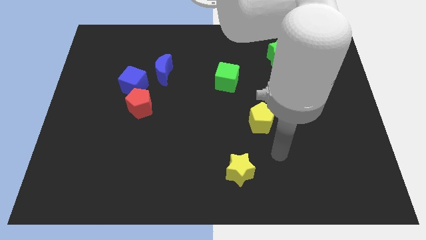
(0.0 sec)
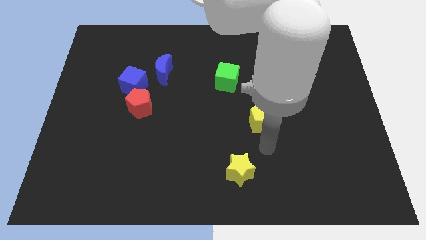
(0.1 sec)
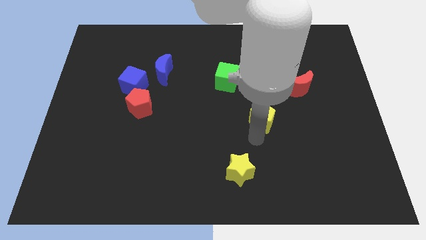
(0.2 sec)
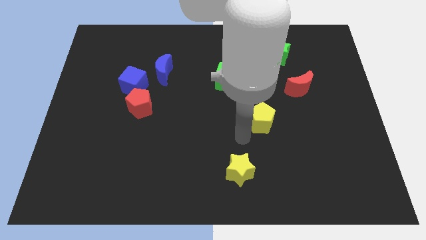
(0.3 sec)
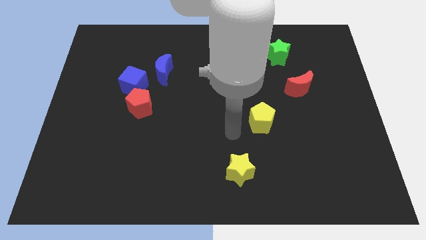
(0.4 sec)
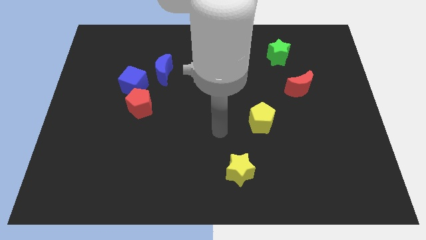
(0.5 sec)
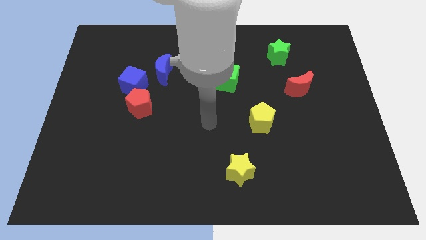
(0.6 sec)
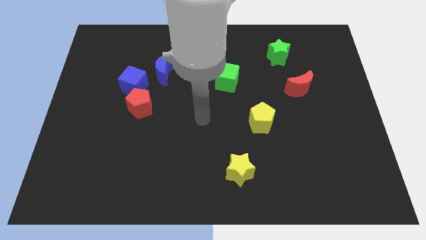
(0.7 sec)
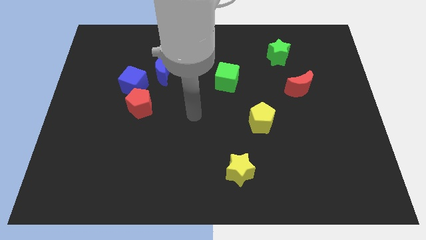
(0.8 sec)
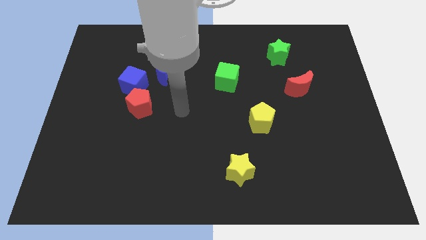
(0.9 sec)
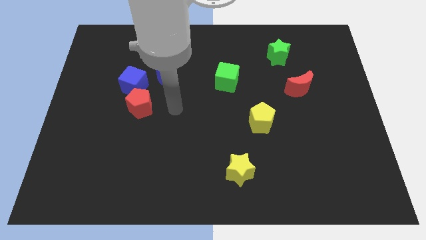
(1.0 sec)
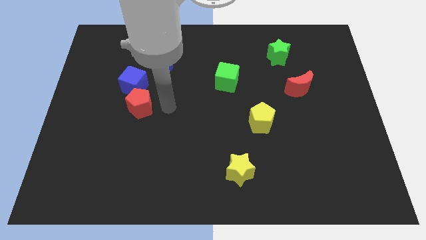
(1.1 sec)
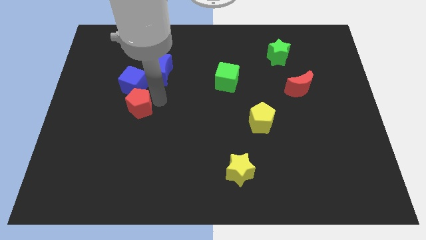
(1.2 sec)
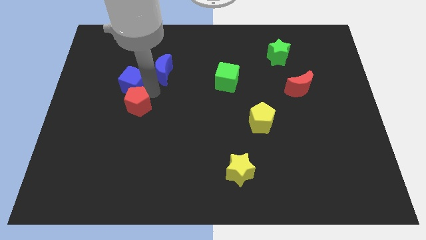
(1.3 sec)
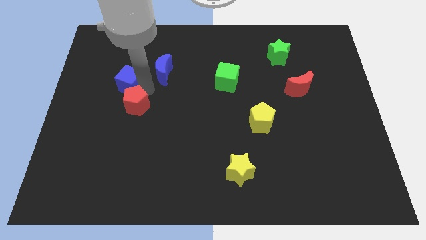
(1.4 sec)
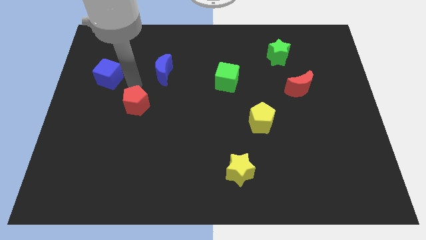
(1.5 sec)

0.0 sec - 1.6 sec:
move the red pentagon away from the blue cube

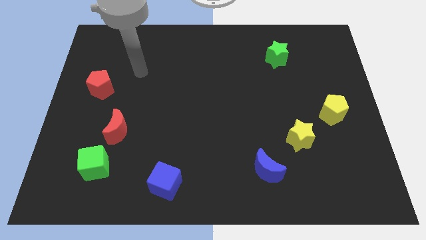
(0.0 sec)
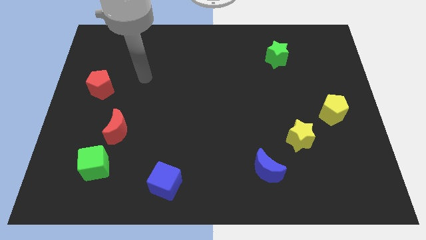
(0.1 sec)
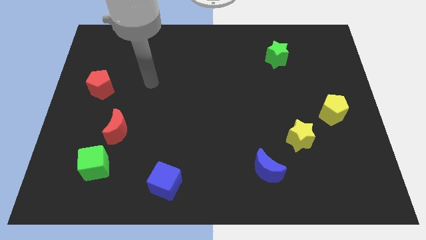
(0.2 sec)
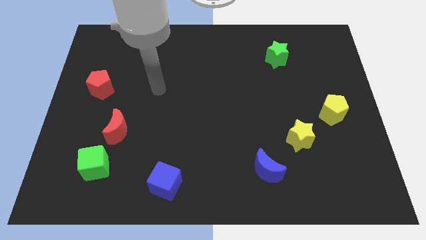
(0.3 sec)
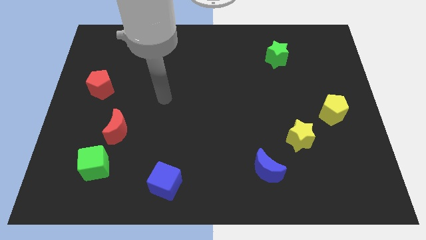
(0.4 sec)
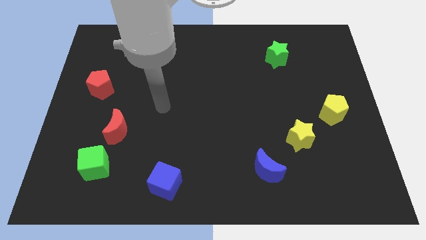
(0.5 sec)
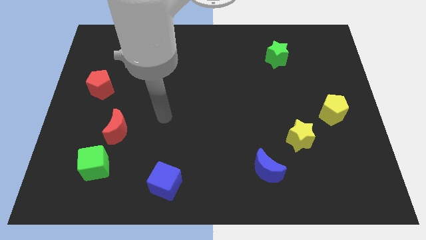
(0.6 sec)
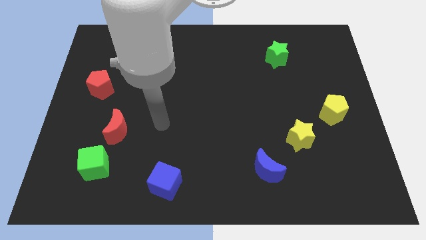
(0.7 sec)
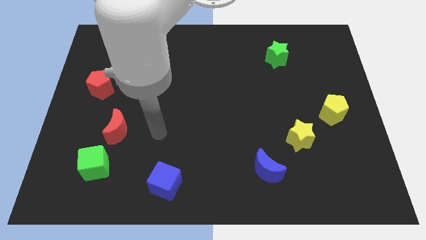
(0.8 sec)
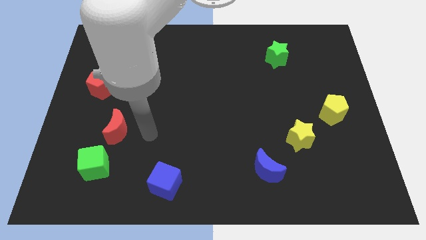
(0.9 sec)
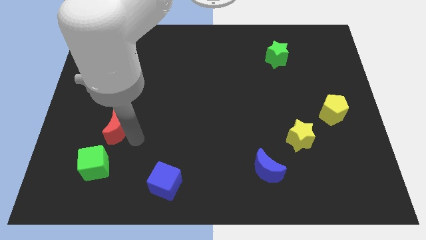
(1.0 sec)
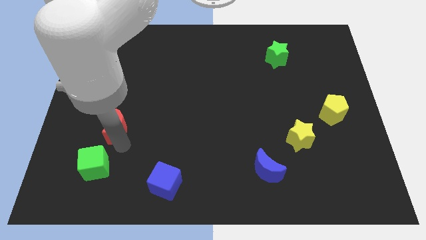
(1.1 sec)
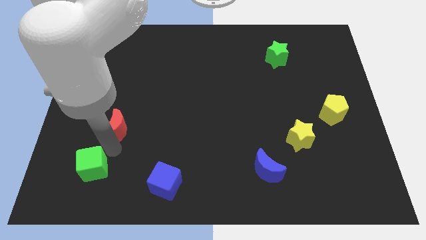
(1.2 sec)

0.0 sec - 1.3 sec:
move the red moon away from the green cube

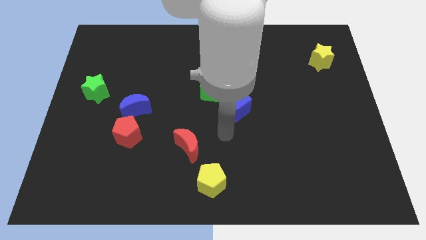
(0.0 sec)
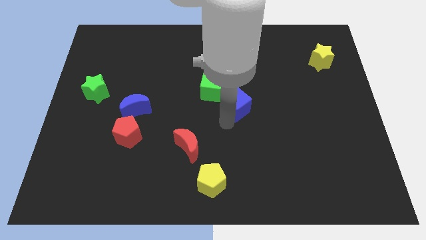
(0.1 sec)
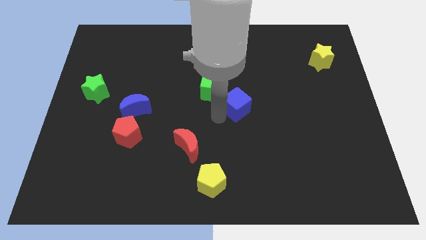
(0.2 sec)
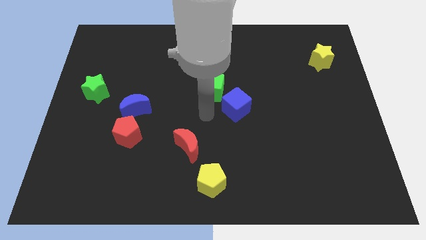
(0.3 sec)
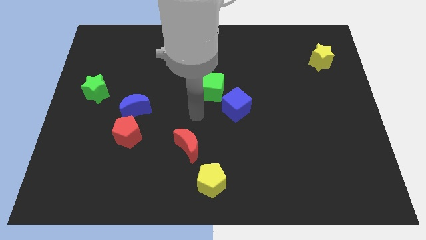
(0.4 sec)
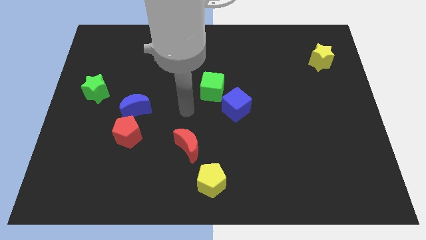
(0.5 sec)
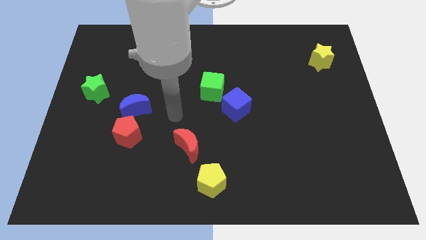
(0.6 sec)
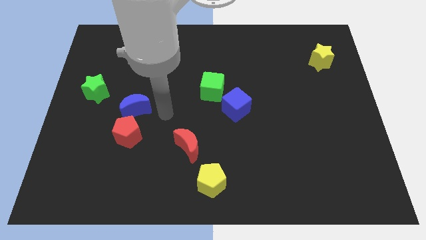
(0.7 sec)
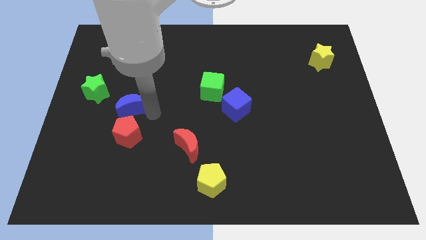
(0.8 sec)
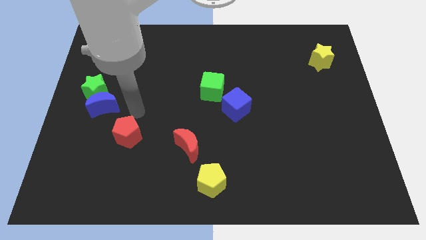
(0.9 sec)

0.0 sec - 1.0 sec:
separate the red pentagon from the blue moon

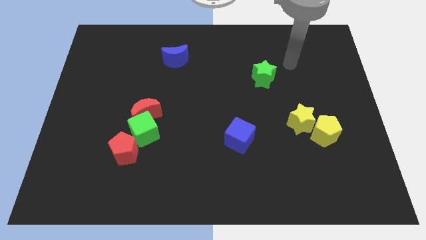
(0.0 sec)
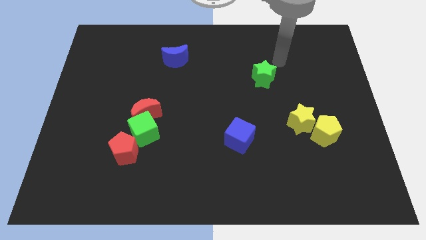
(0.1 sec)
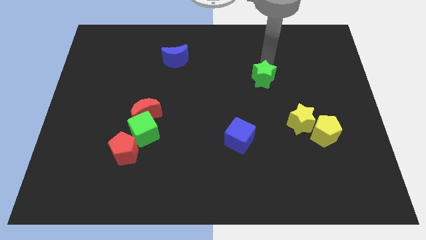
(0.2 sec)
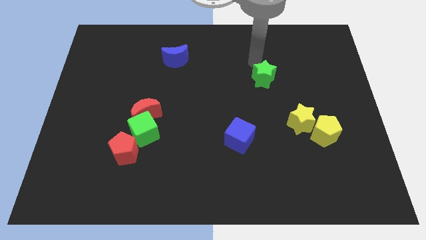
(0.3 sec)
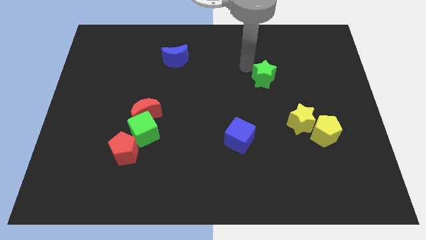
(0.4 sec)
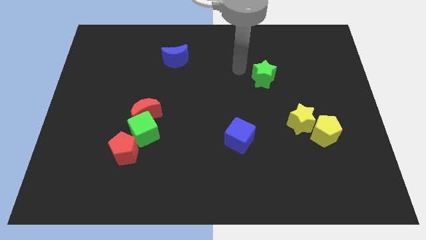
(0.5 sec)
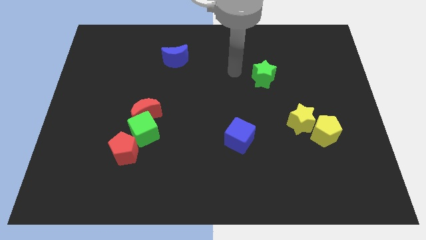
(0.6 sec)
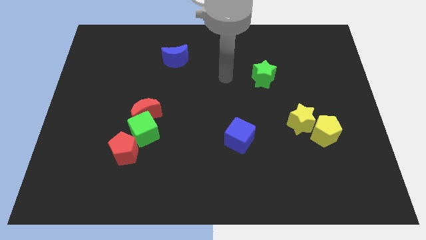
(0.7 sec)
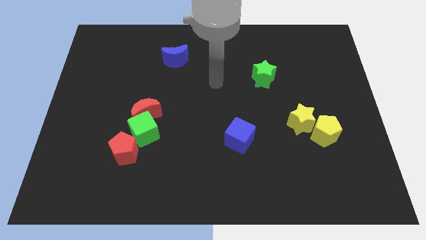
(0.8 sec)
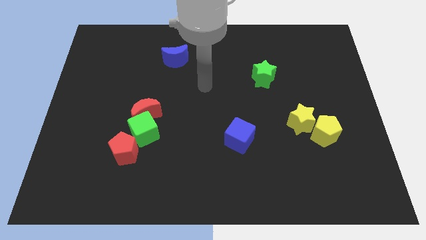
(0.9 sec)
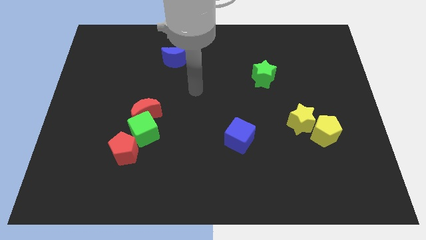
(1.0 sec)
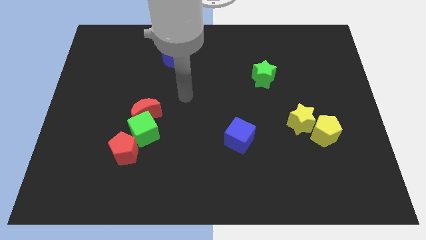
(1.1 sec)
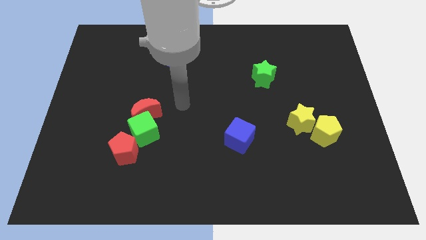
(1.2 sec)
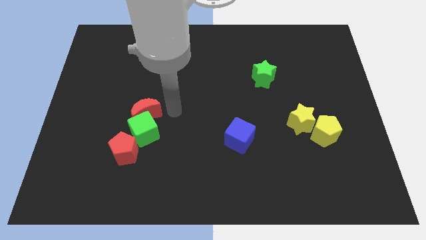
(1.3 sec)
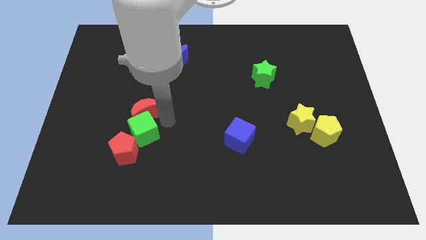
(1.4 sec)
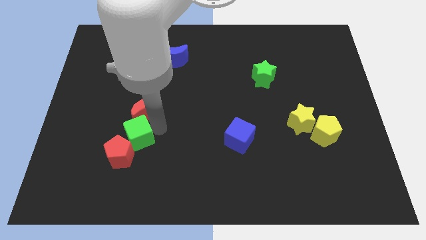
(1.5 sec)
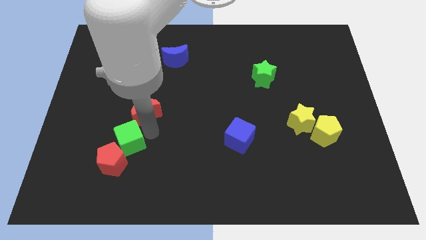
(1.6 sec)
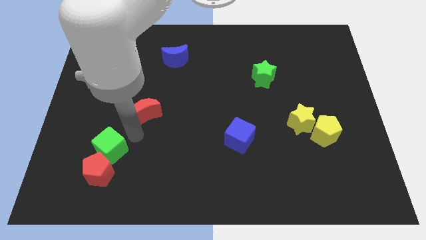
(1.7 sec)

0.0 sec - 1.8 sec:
pull the red moon apart from the green cube

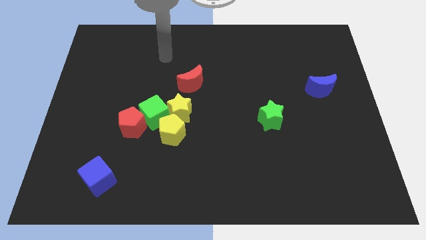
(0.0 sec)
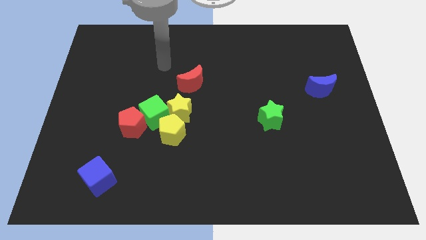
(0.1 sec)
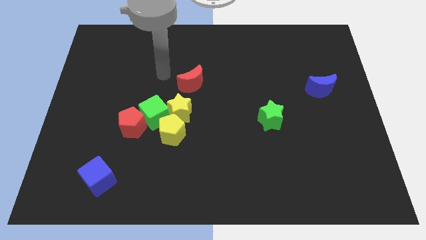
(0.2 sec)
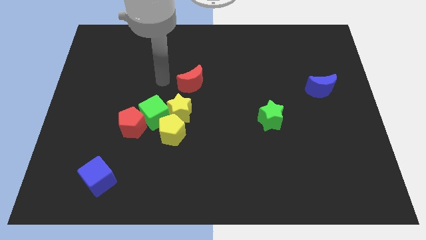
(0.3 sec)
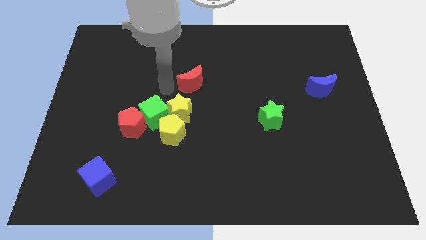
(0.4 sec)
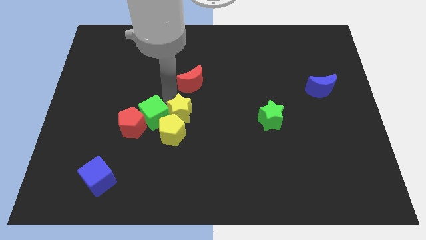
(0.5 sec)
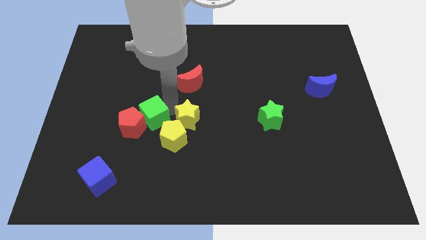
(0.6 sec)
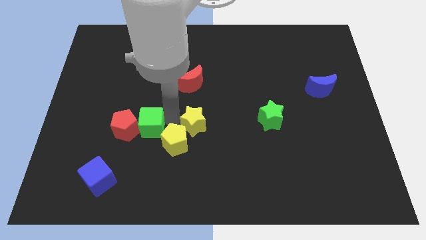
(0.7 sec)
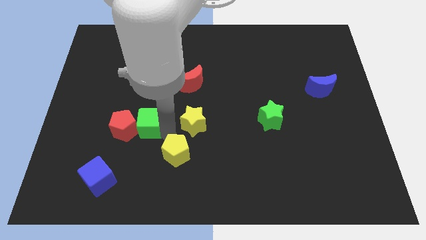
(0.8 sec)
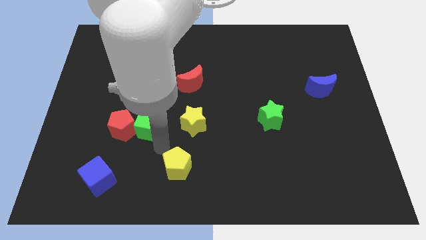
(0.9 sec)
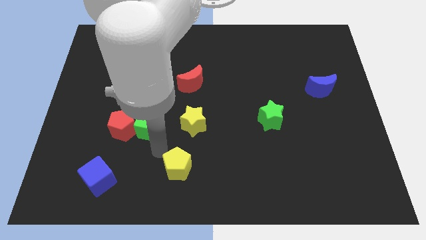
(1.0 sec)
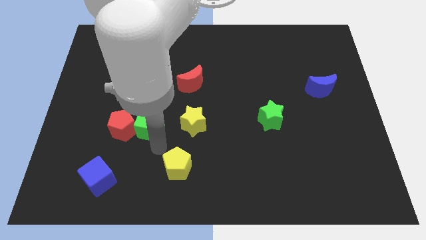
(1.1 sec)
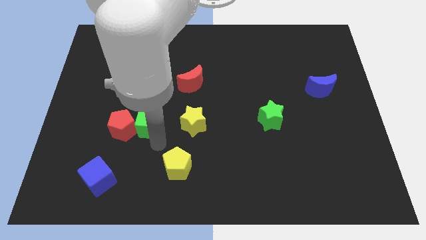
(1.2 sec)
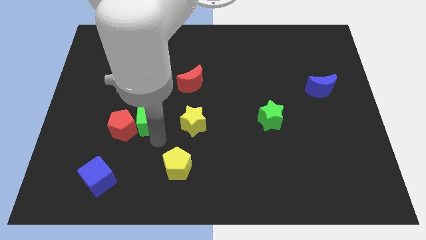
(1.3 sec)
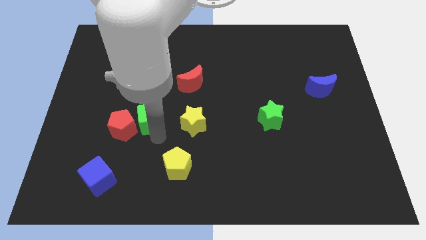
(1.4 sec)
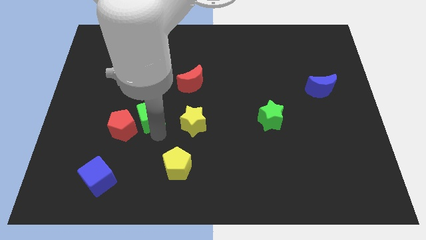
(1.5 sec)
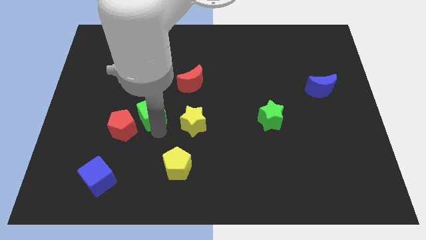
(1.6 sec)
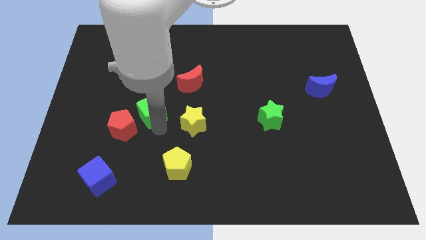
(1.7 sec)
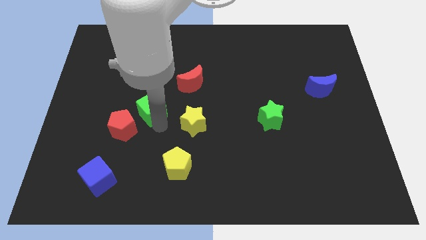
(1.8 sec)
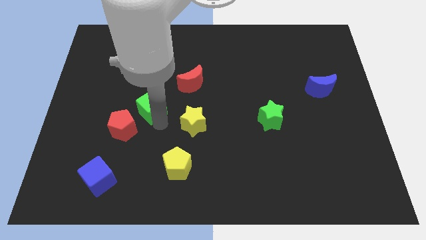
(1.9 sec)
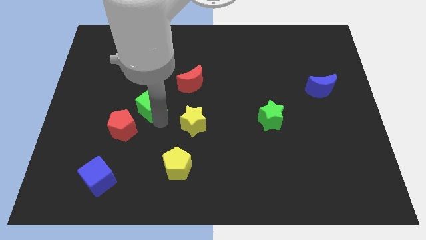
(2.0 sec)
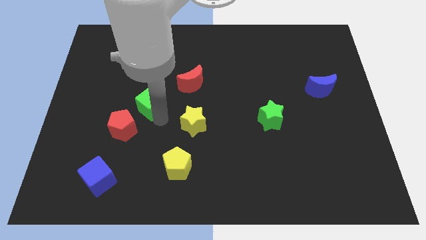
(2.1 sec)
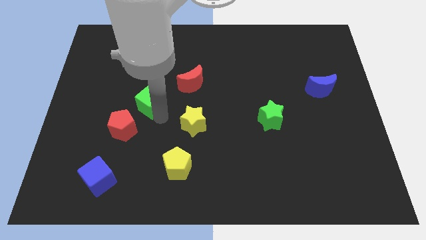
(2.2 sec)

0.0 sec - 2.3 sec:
move the green cube away from the group of blocks

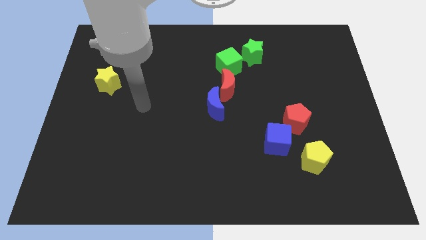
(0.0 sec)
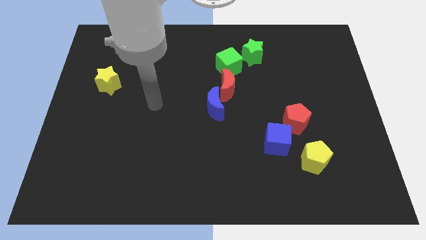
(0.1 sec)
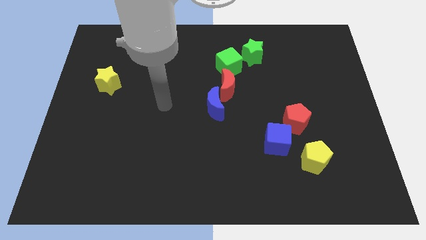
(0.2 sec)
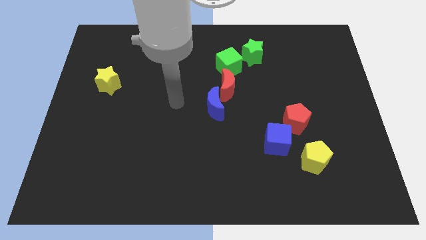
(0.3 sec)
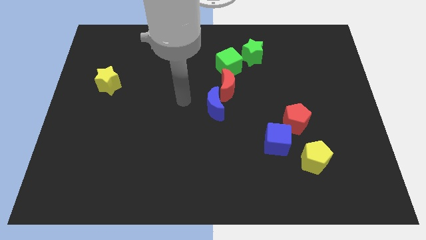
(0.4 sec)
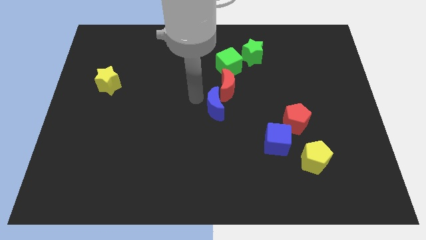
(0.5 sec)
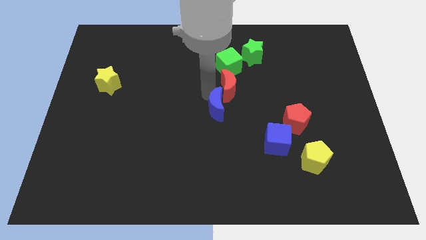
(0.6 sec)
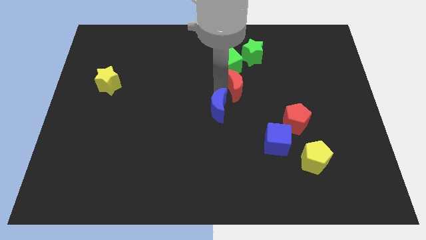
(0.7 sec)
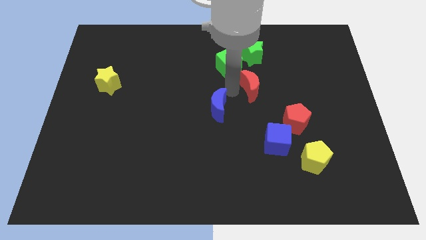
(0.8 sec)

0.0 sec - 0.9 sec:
move the blue moon away from the red moon

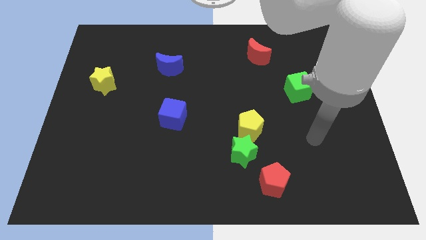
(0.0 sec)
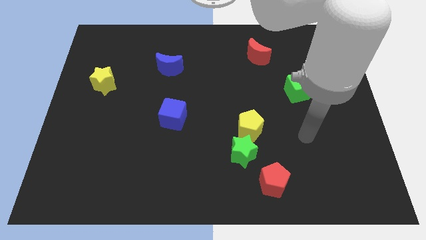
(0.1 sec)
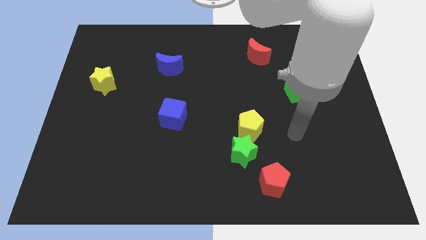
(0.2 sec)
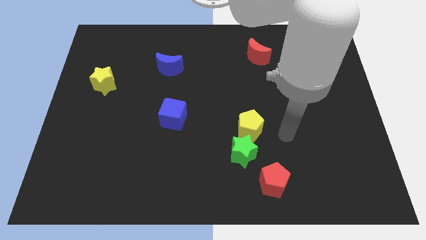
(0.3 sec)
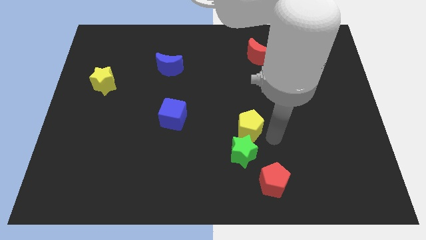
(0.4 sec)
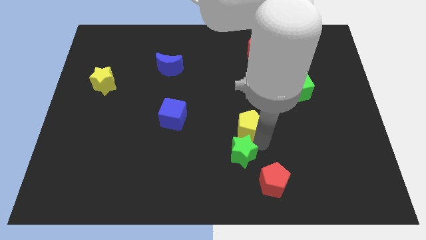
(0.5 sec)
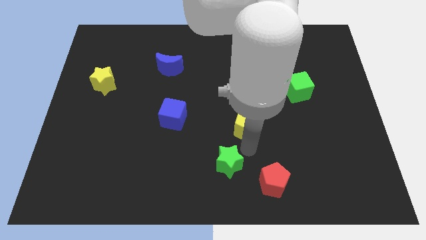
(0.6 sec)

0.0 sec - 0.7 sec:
separate the yellow pentagon from the green star
